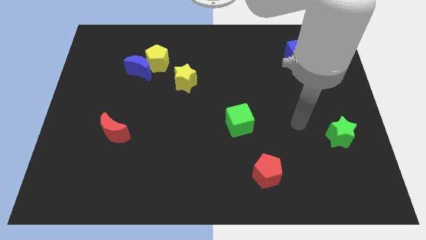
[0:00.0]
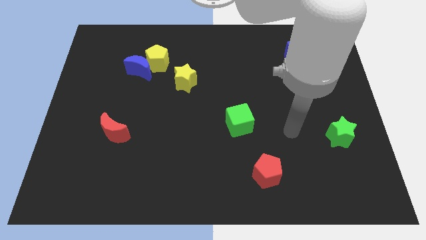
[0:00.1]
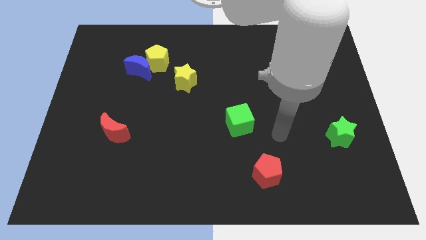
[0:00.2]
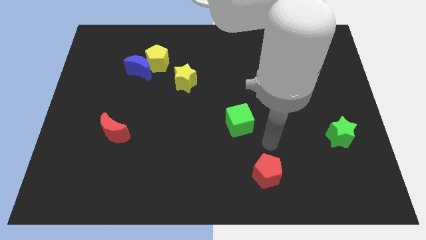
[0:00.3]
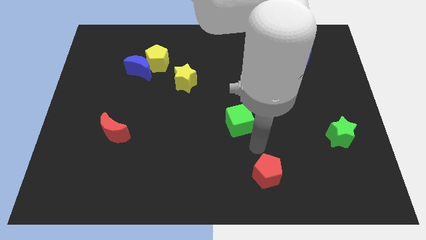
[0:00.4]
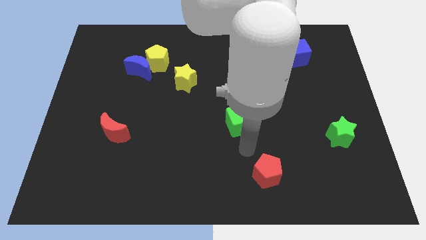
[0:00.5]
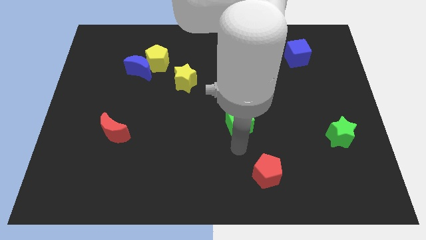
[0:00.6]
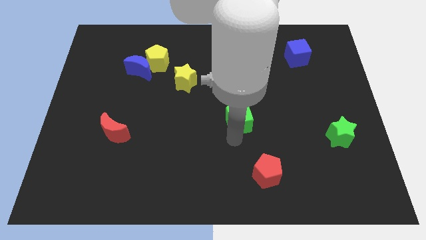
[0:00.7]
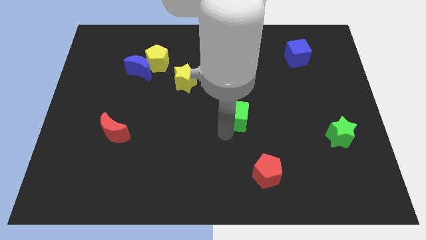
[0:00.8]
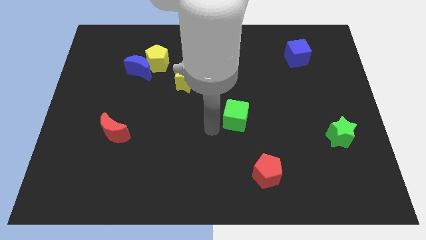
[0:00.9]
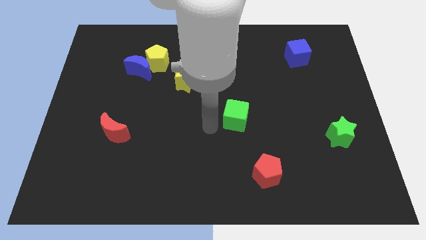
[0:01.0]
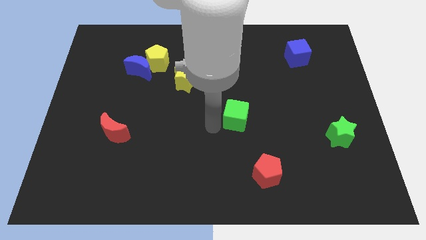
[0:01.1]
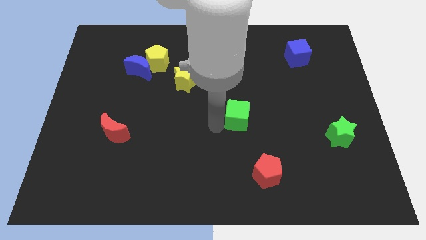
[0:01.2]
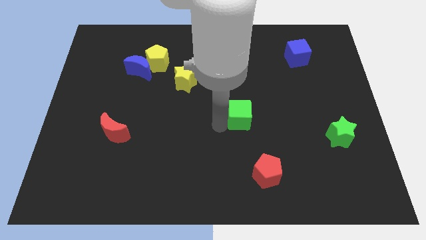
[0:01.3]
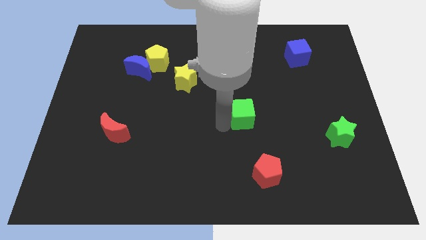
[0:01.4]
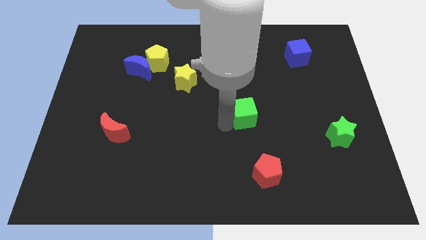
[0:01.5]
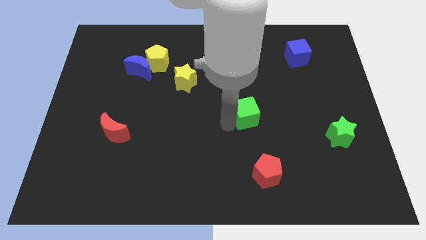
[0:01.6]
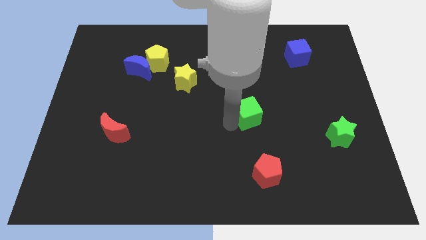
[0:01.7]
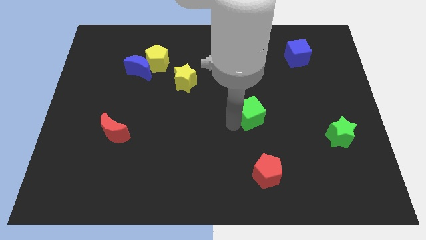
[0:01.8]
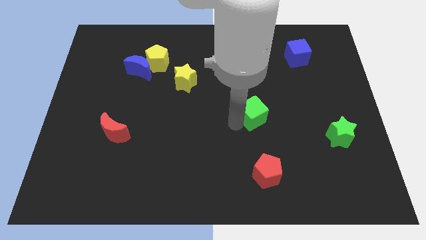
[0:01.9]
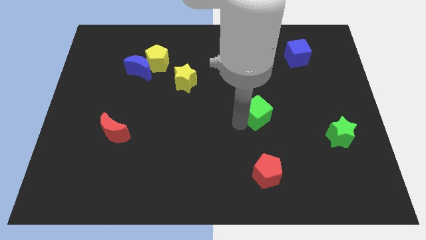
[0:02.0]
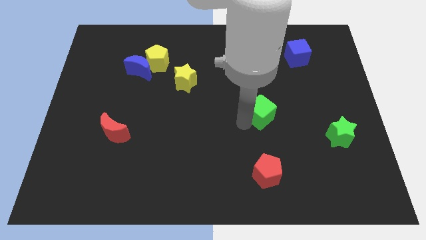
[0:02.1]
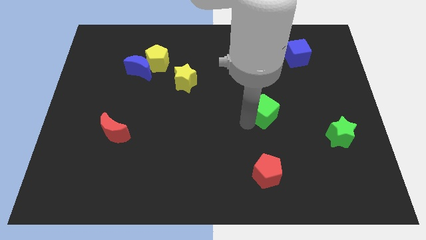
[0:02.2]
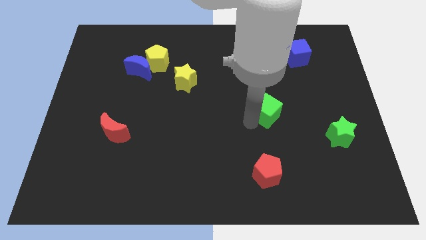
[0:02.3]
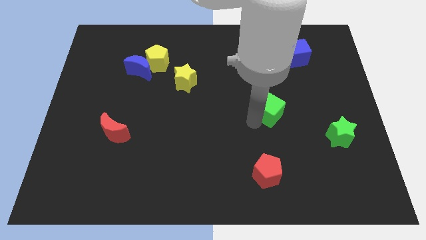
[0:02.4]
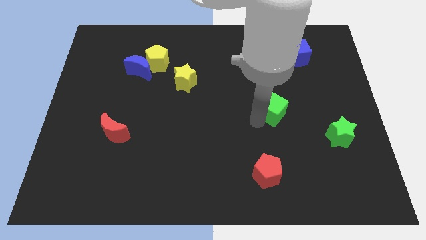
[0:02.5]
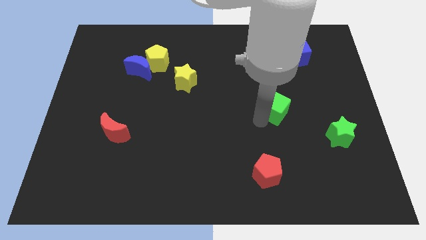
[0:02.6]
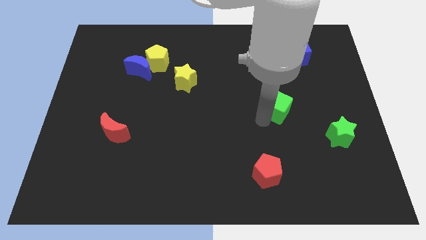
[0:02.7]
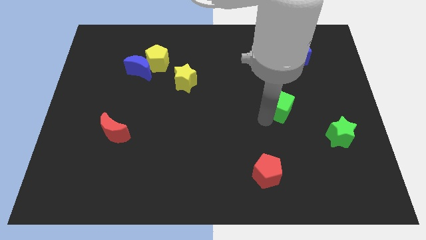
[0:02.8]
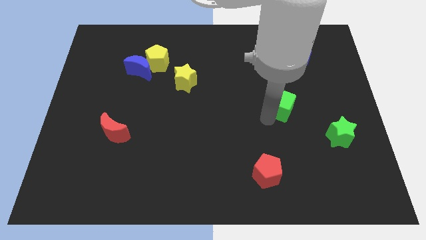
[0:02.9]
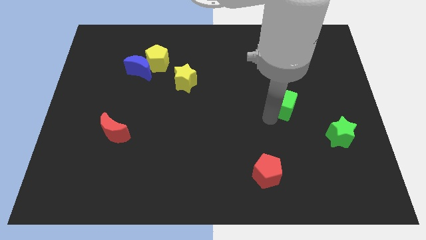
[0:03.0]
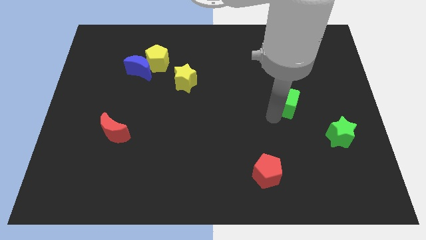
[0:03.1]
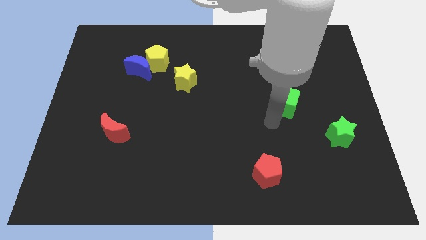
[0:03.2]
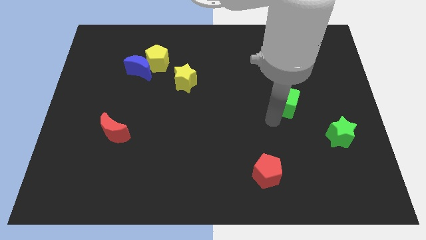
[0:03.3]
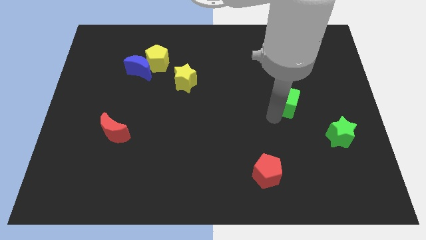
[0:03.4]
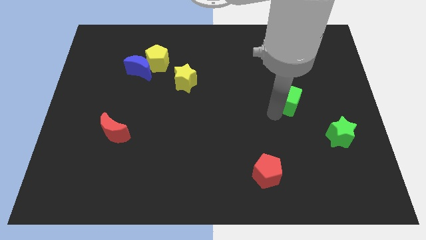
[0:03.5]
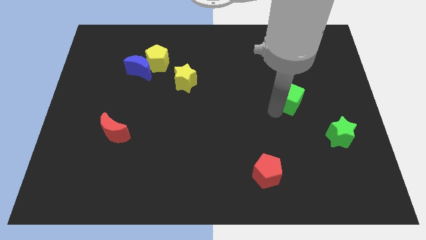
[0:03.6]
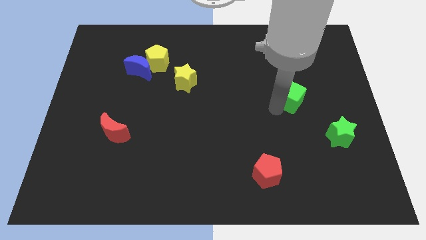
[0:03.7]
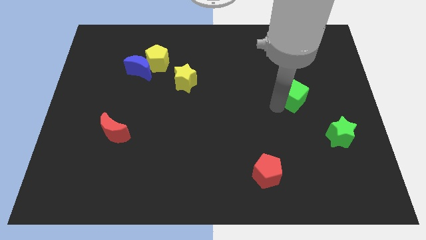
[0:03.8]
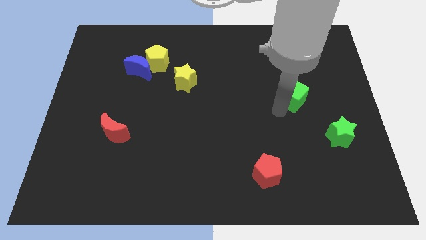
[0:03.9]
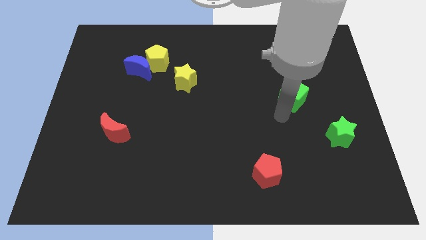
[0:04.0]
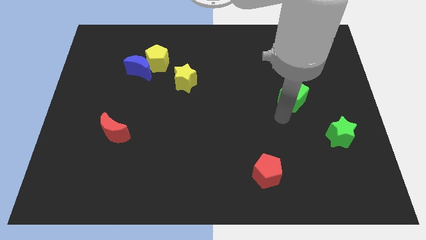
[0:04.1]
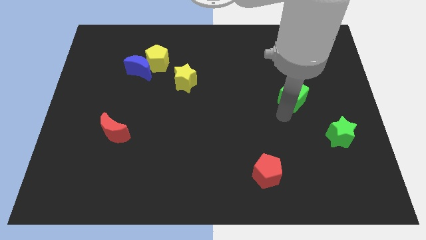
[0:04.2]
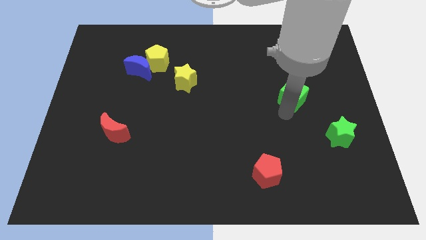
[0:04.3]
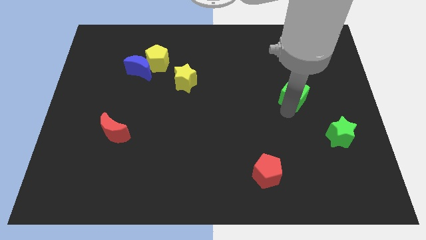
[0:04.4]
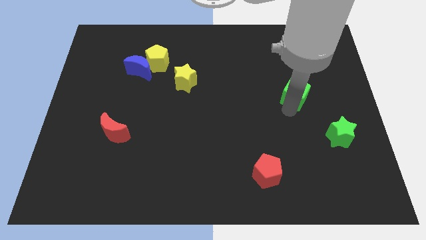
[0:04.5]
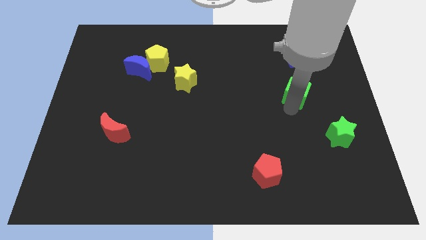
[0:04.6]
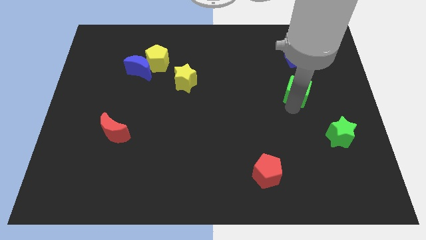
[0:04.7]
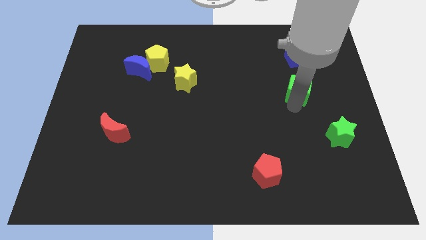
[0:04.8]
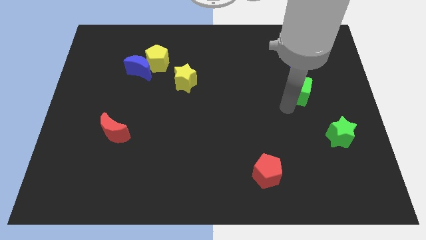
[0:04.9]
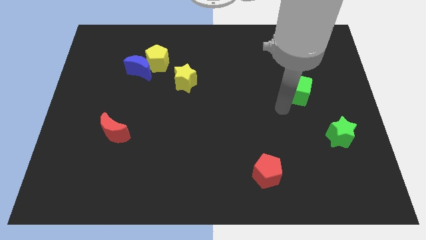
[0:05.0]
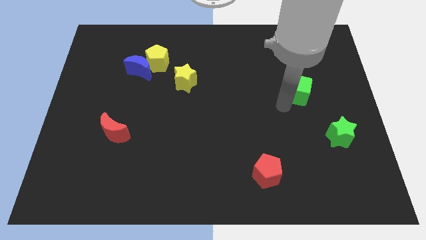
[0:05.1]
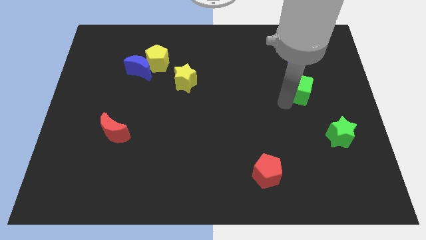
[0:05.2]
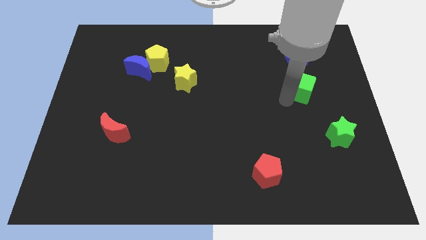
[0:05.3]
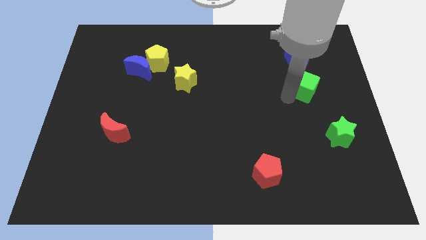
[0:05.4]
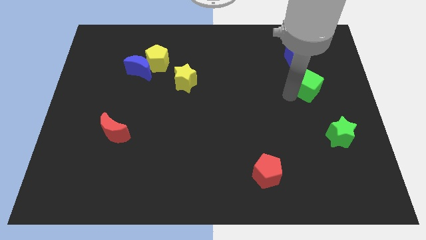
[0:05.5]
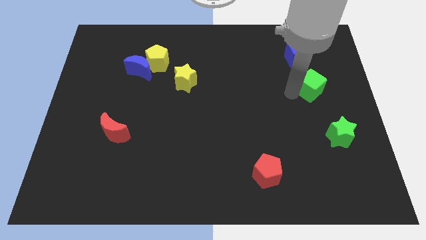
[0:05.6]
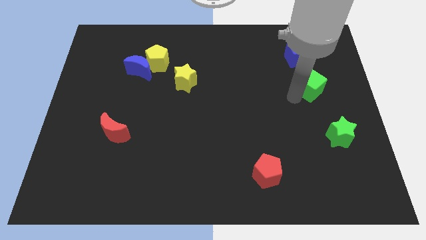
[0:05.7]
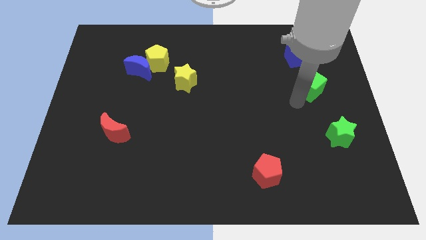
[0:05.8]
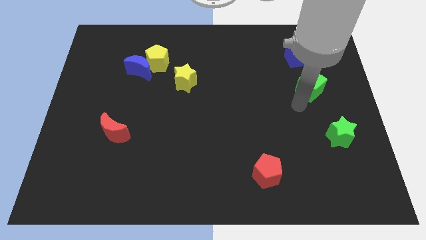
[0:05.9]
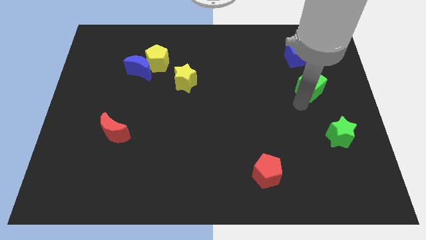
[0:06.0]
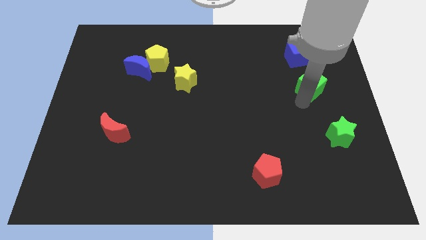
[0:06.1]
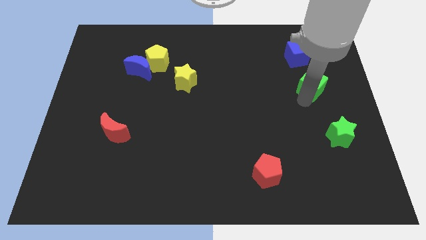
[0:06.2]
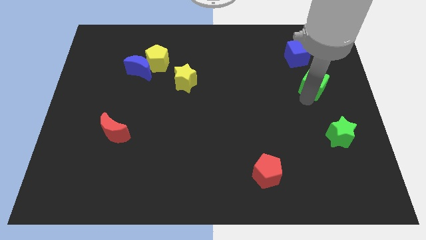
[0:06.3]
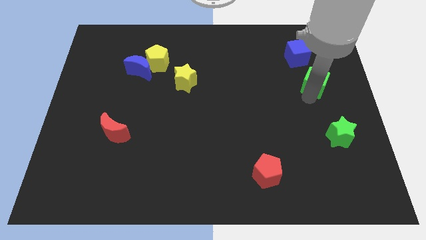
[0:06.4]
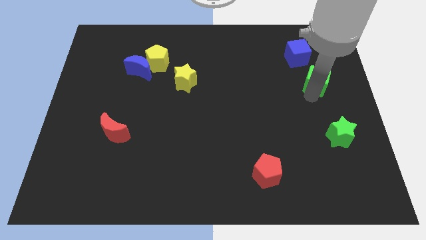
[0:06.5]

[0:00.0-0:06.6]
put the green cube diagonally down and to the right of the blue cube

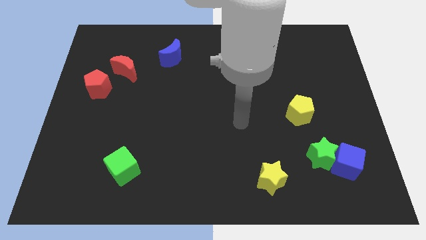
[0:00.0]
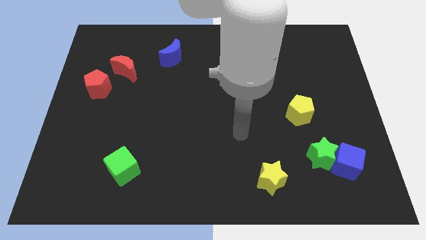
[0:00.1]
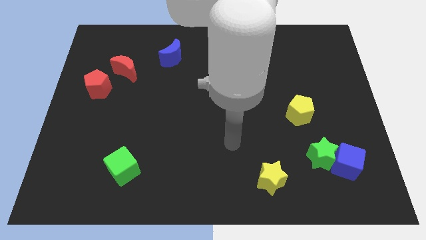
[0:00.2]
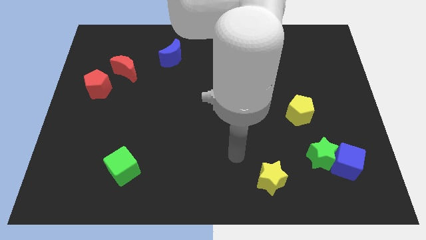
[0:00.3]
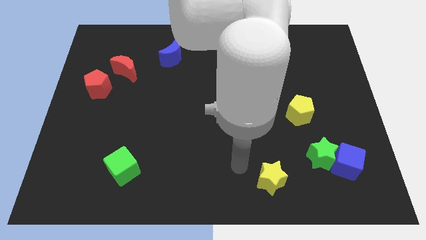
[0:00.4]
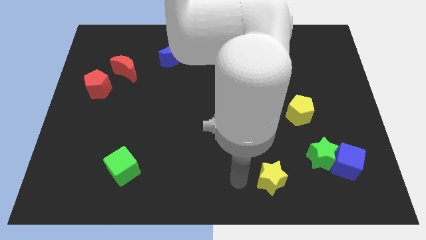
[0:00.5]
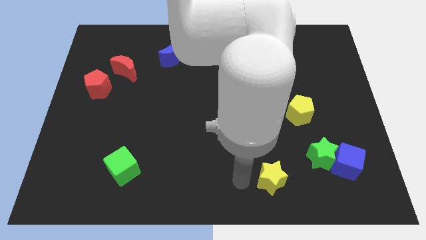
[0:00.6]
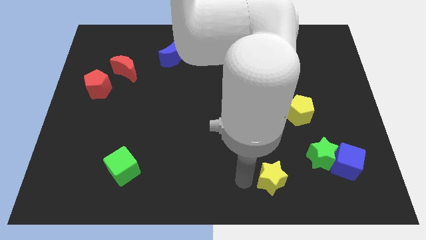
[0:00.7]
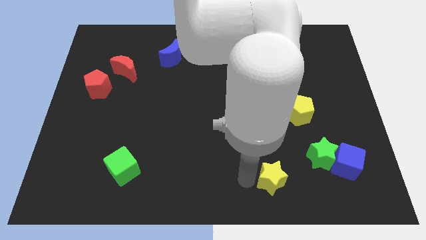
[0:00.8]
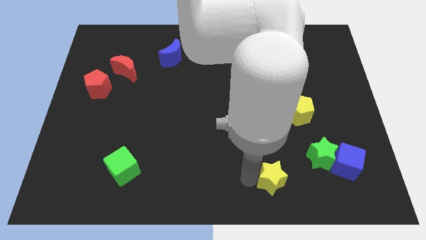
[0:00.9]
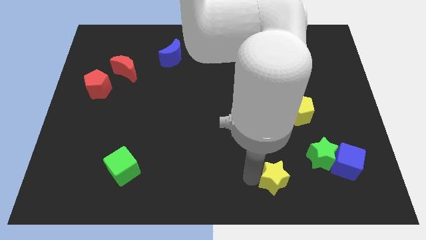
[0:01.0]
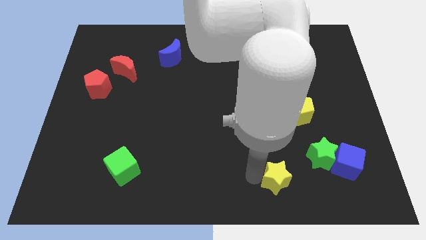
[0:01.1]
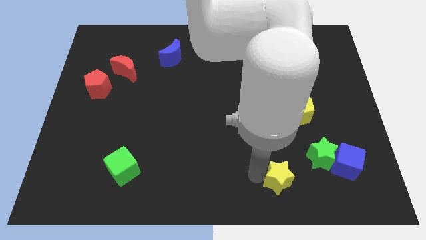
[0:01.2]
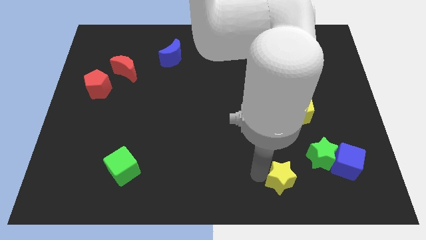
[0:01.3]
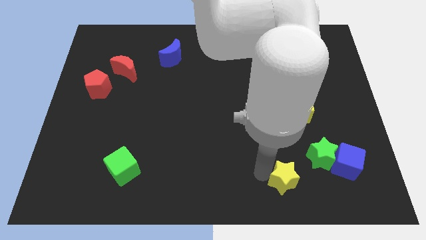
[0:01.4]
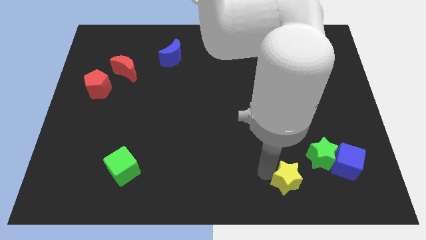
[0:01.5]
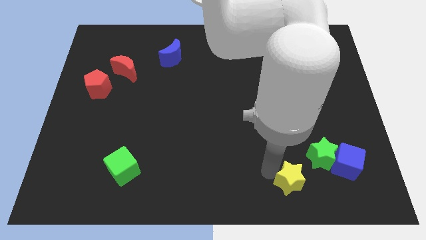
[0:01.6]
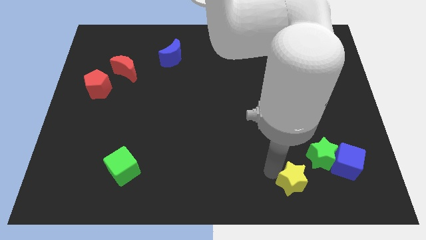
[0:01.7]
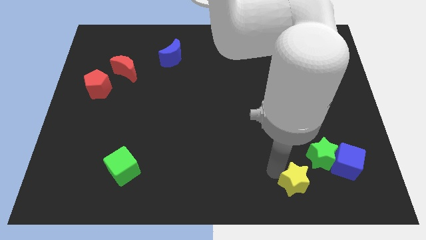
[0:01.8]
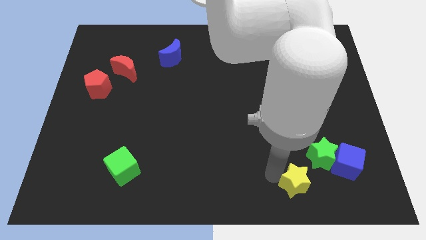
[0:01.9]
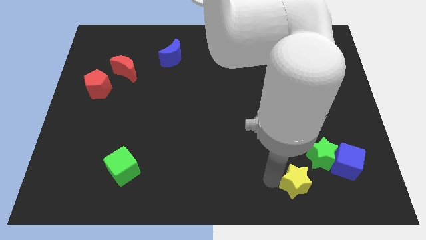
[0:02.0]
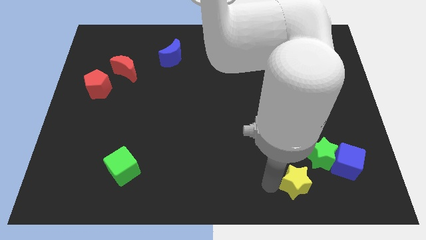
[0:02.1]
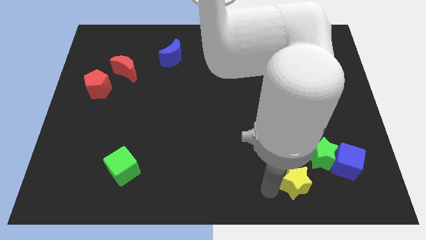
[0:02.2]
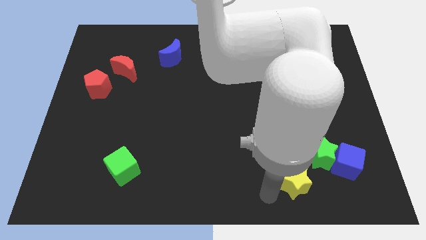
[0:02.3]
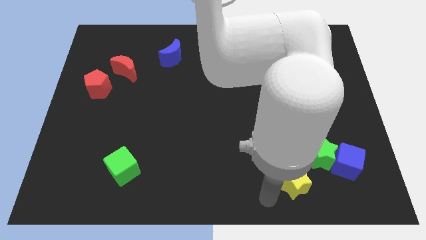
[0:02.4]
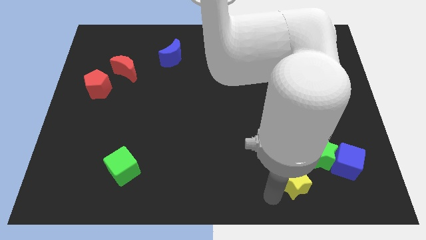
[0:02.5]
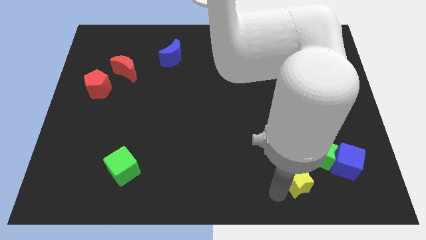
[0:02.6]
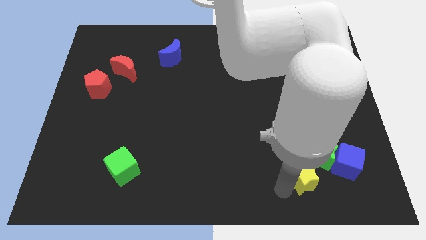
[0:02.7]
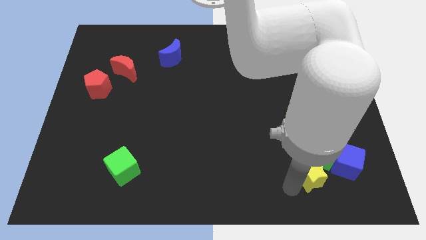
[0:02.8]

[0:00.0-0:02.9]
slide the yellow star below the yellow pentagon
